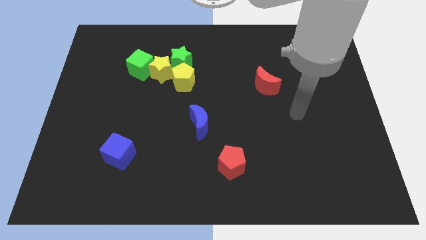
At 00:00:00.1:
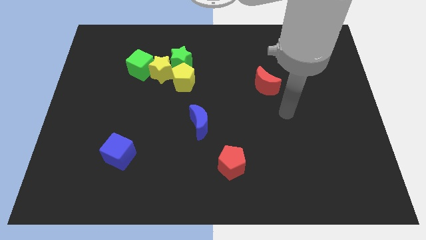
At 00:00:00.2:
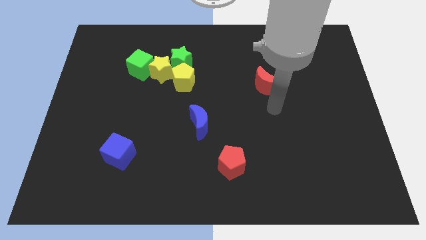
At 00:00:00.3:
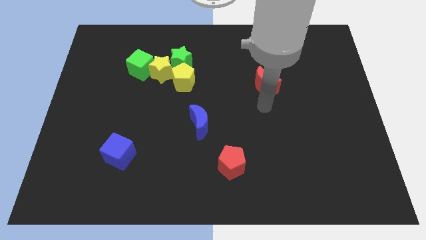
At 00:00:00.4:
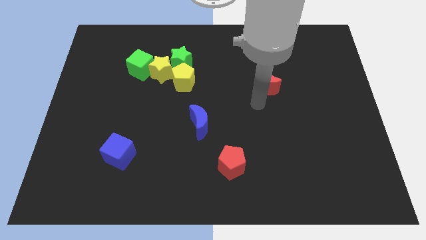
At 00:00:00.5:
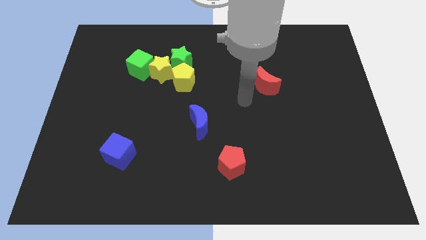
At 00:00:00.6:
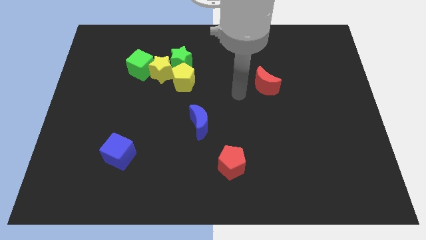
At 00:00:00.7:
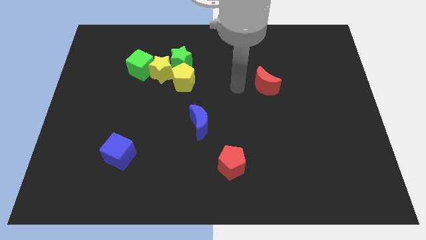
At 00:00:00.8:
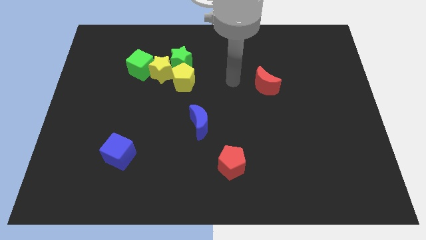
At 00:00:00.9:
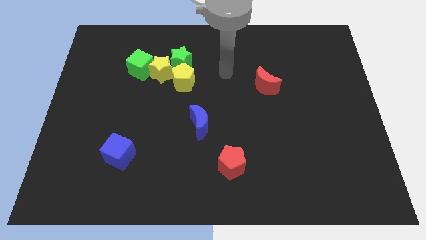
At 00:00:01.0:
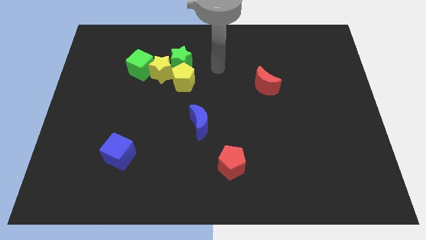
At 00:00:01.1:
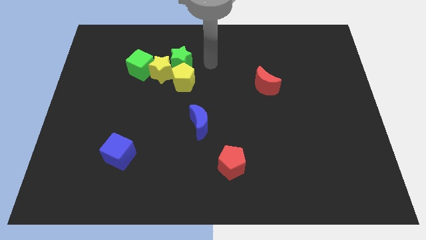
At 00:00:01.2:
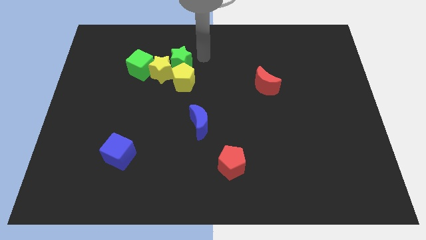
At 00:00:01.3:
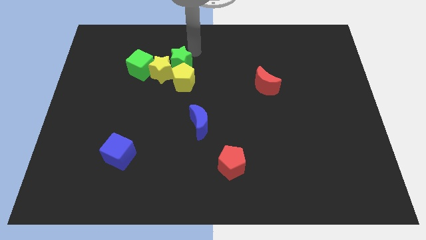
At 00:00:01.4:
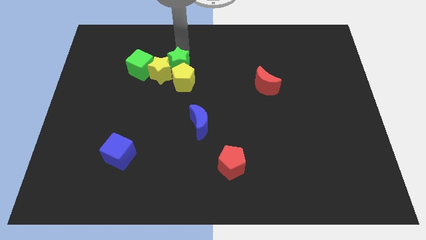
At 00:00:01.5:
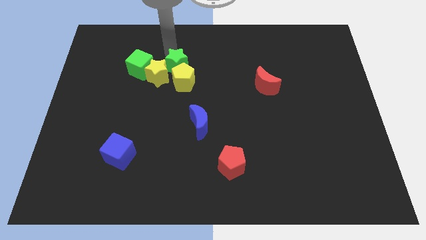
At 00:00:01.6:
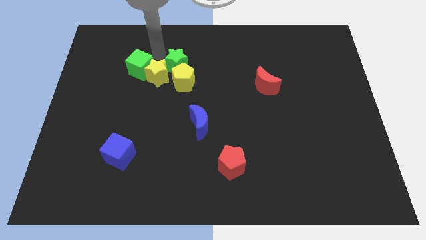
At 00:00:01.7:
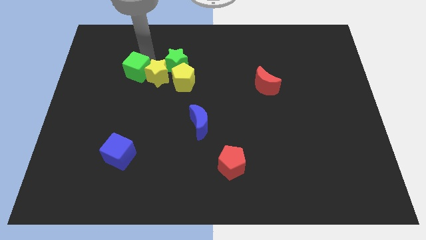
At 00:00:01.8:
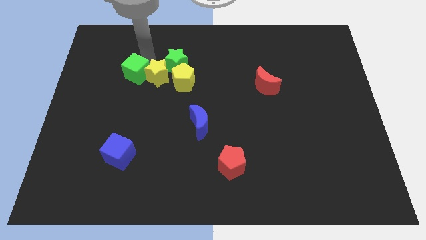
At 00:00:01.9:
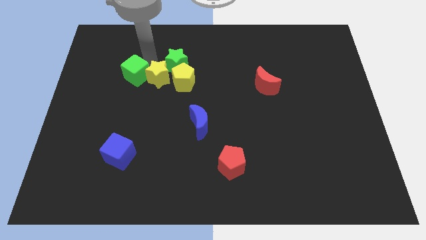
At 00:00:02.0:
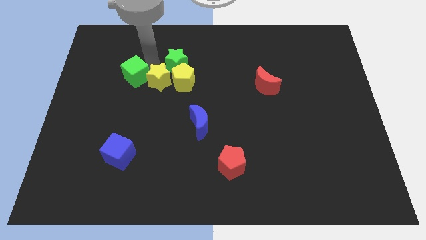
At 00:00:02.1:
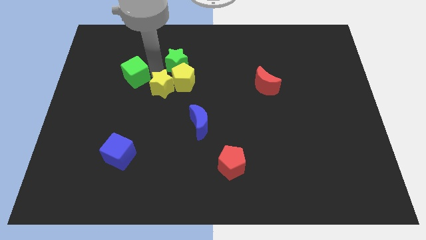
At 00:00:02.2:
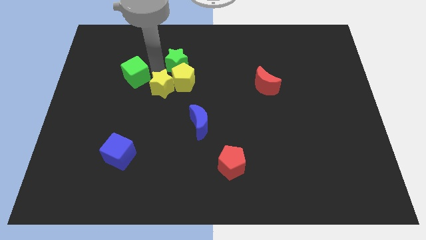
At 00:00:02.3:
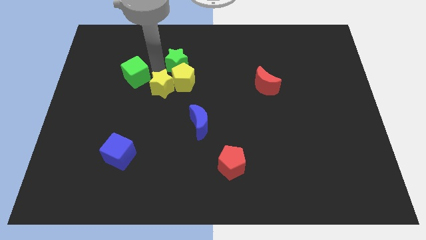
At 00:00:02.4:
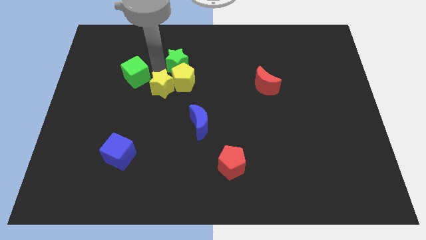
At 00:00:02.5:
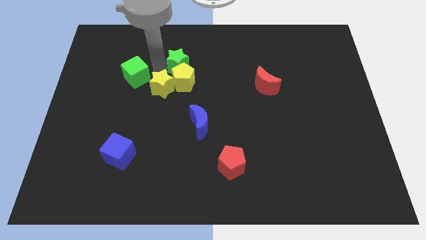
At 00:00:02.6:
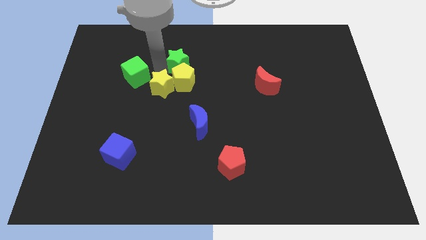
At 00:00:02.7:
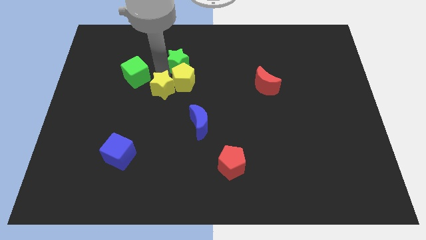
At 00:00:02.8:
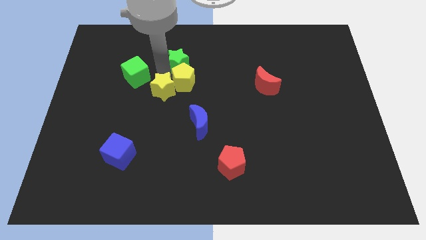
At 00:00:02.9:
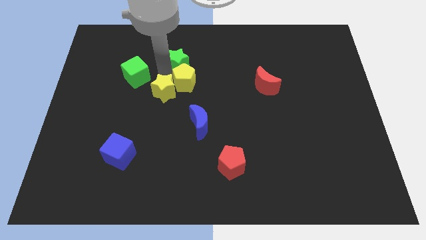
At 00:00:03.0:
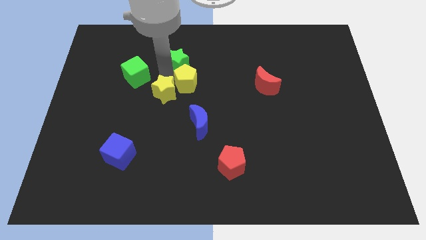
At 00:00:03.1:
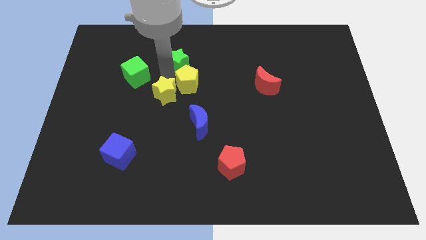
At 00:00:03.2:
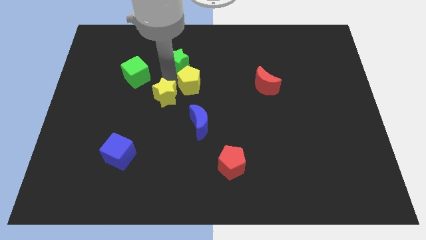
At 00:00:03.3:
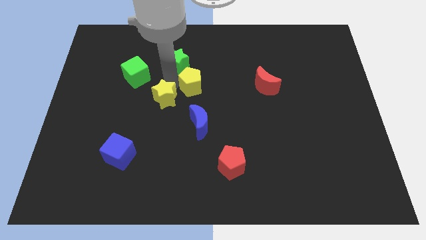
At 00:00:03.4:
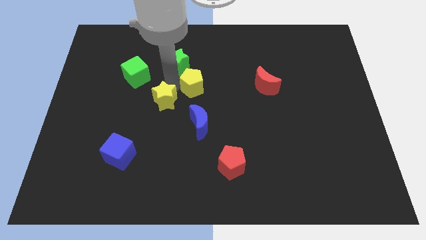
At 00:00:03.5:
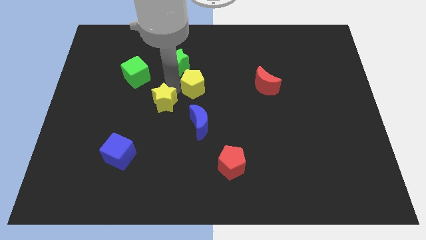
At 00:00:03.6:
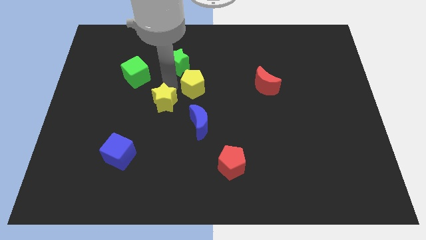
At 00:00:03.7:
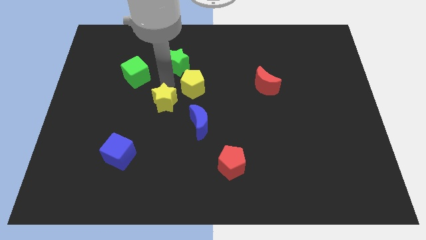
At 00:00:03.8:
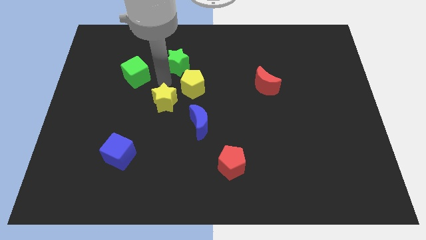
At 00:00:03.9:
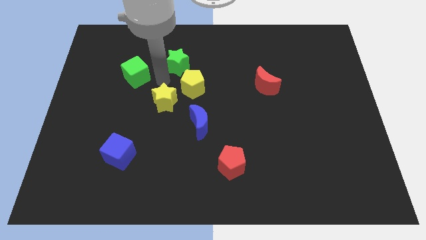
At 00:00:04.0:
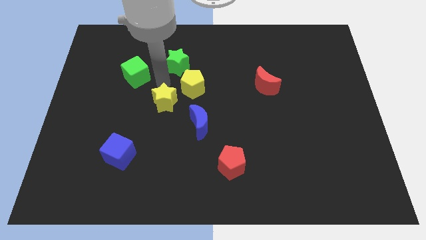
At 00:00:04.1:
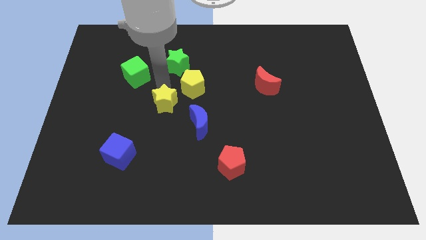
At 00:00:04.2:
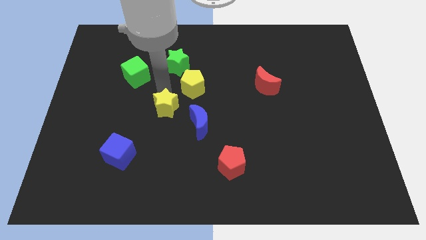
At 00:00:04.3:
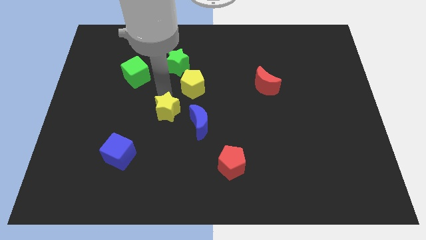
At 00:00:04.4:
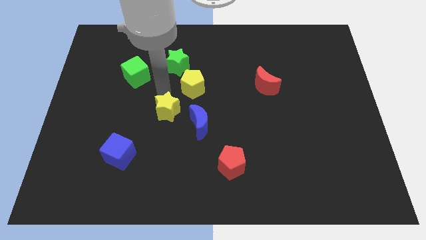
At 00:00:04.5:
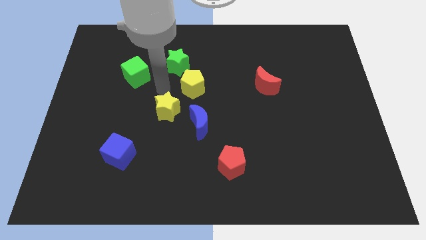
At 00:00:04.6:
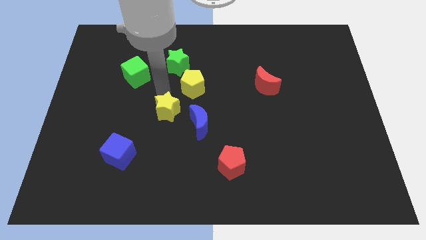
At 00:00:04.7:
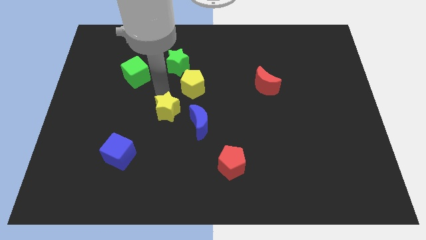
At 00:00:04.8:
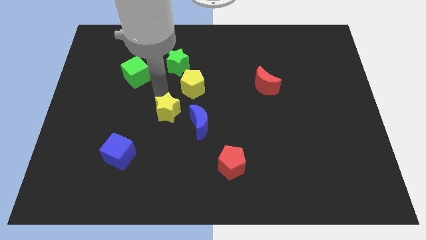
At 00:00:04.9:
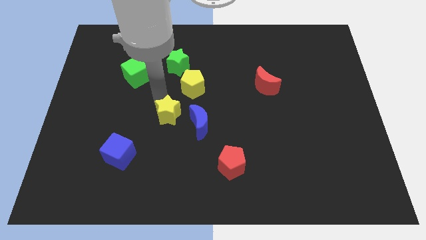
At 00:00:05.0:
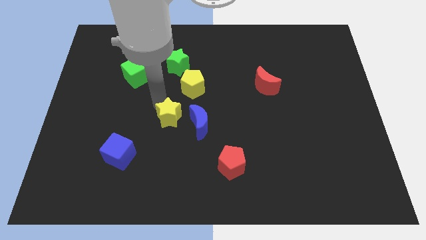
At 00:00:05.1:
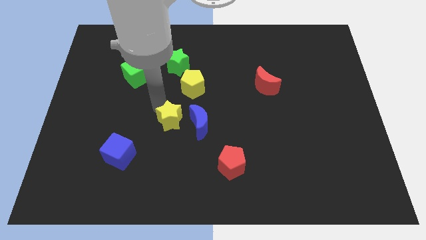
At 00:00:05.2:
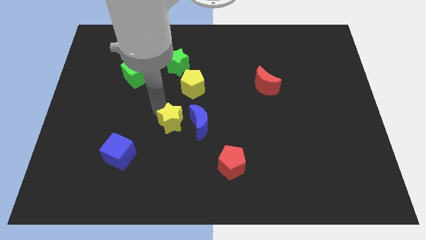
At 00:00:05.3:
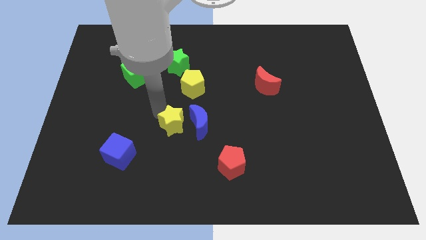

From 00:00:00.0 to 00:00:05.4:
move the yellow star diagonally down and to the left of the blue moon
